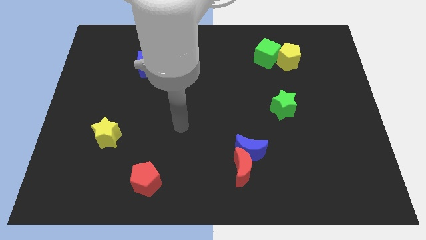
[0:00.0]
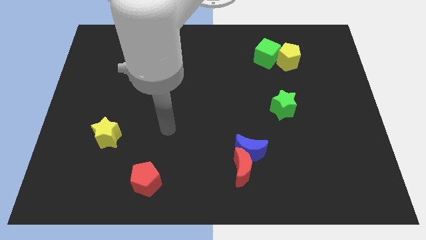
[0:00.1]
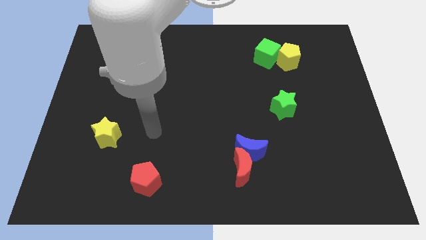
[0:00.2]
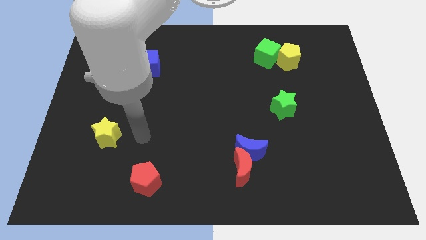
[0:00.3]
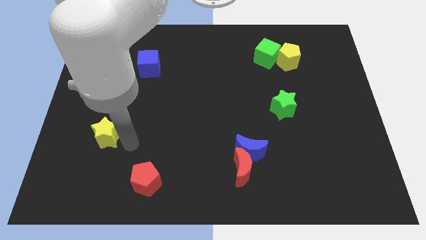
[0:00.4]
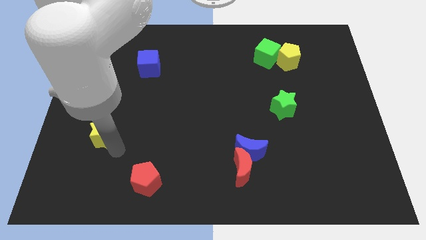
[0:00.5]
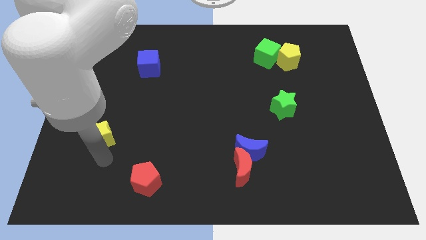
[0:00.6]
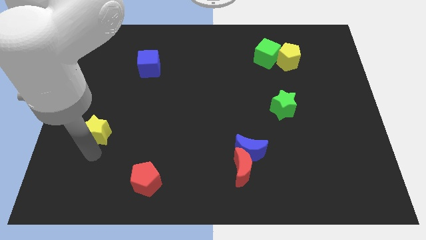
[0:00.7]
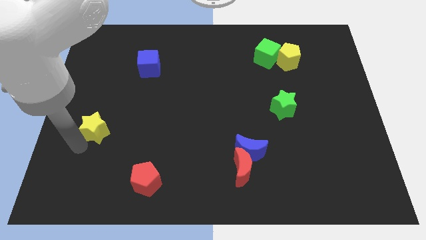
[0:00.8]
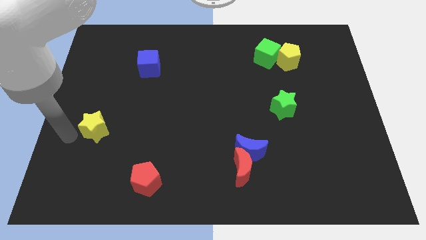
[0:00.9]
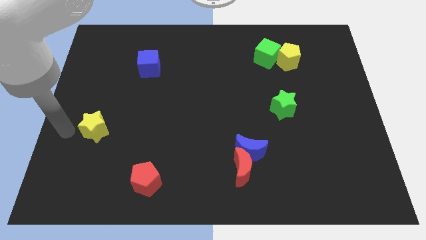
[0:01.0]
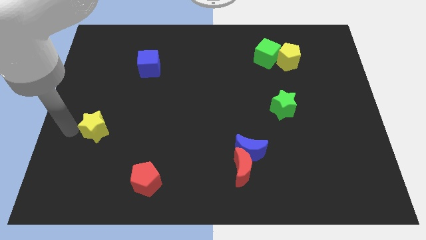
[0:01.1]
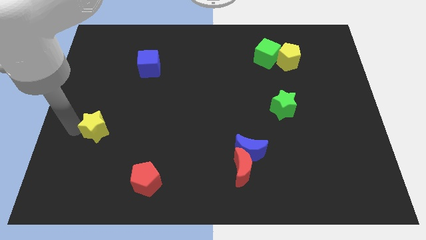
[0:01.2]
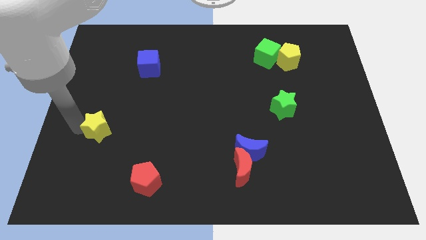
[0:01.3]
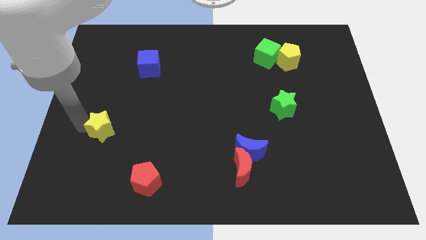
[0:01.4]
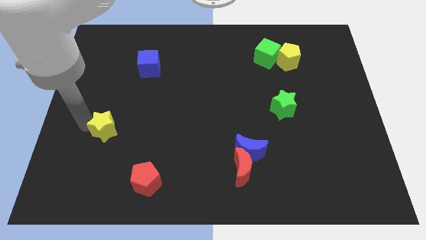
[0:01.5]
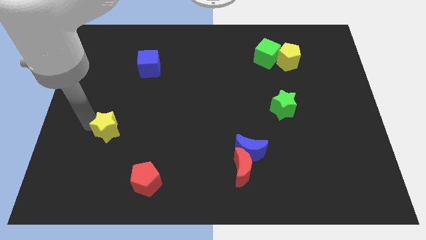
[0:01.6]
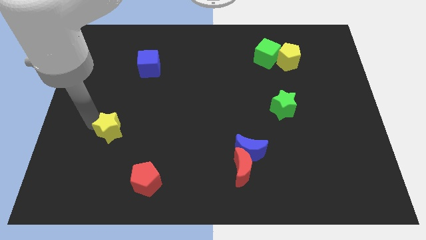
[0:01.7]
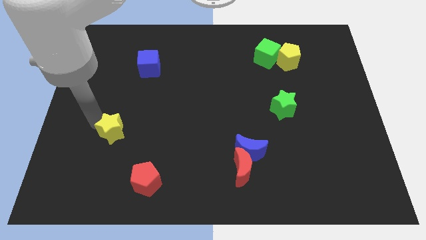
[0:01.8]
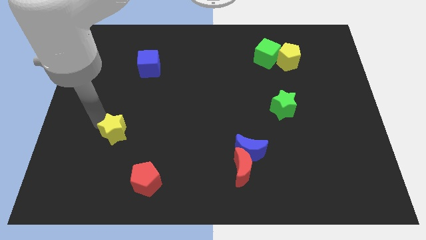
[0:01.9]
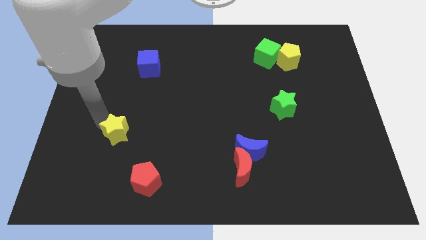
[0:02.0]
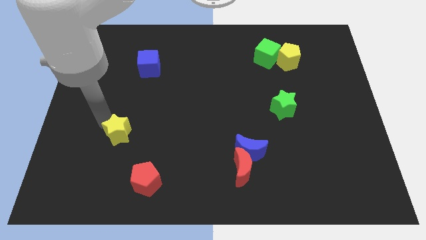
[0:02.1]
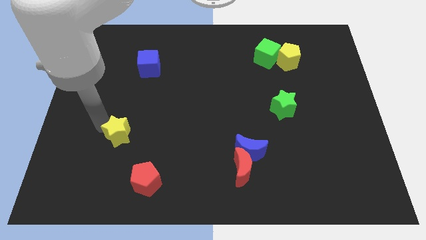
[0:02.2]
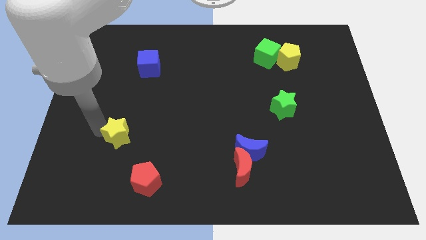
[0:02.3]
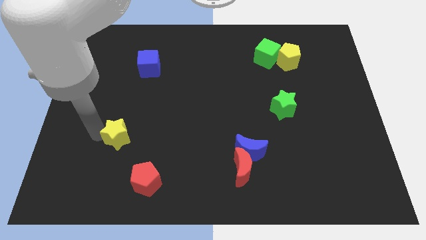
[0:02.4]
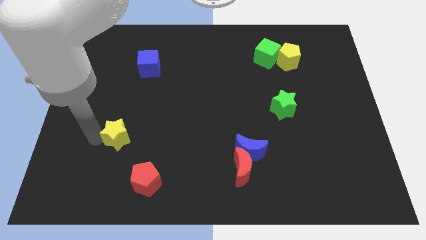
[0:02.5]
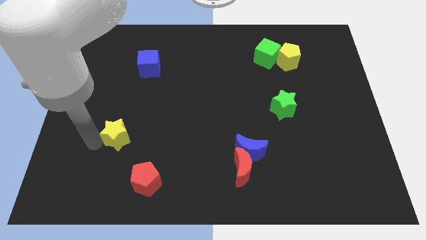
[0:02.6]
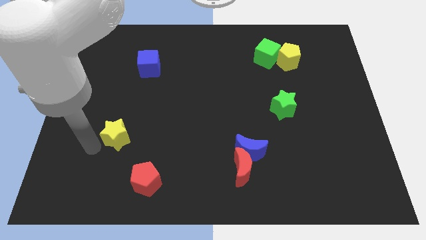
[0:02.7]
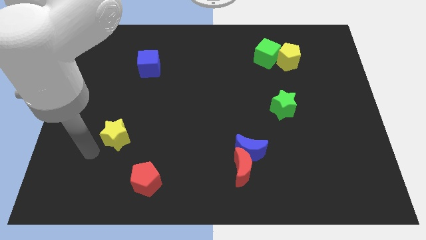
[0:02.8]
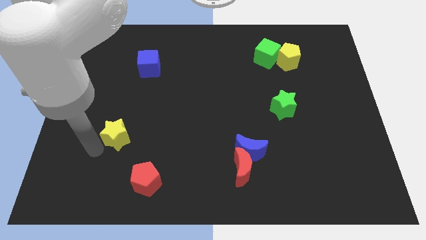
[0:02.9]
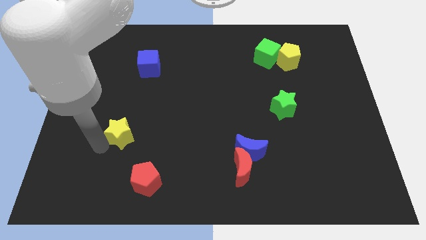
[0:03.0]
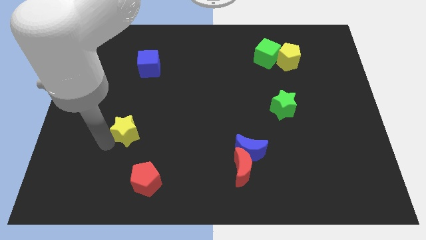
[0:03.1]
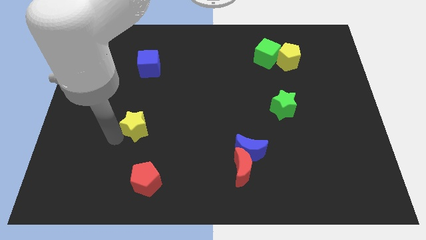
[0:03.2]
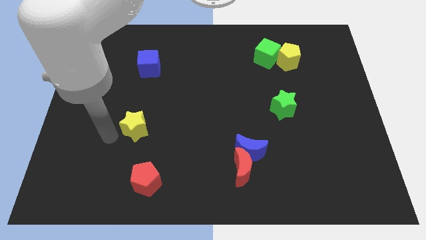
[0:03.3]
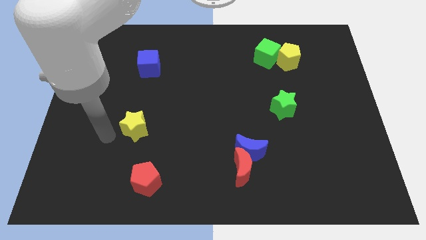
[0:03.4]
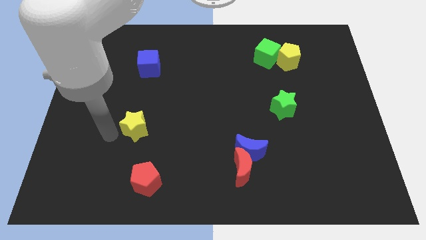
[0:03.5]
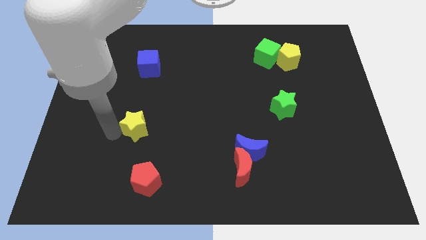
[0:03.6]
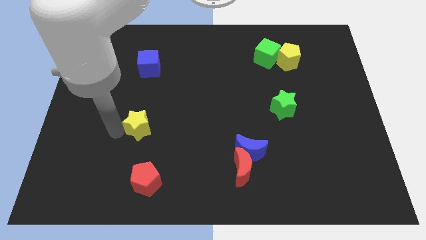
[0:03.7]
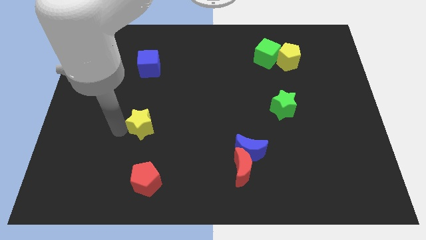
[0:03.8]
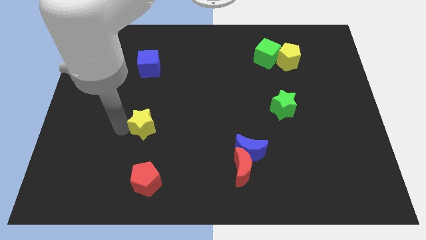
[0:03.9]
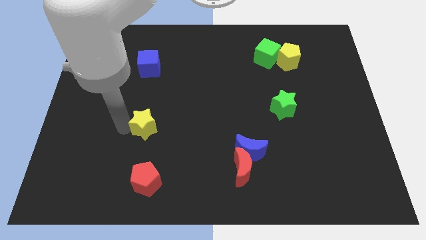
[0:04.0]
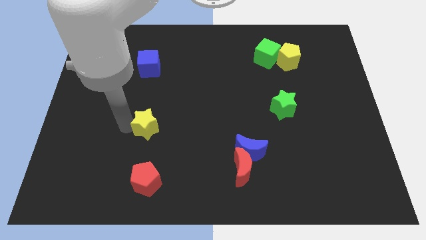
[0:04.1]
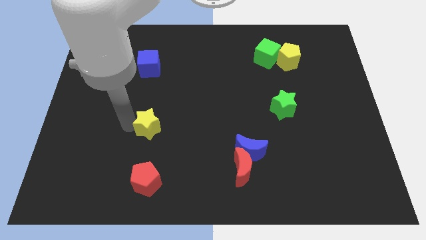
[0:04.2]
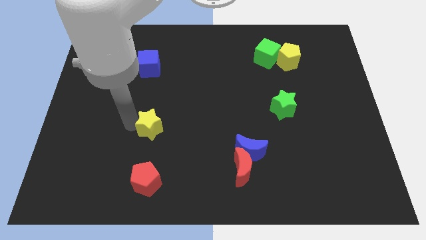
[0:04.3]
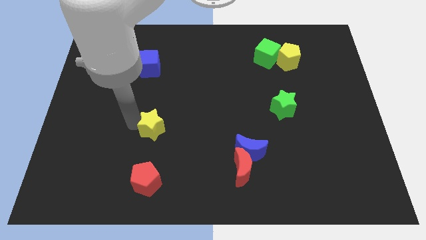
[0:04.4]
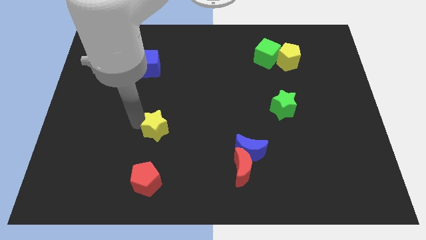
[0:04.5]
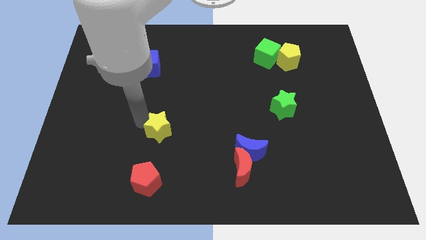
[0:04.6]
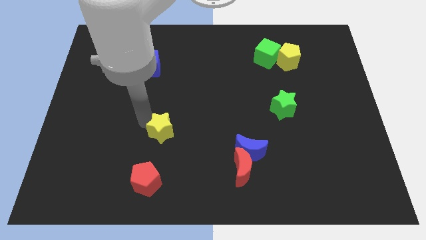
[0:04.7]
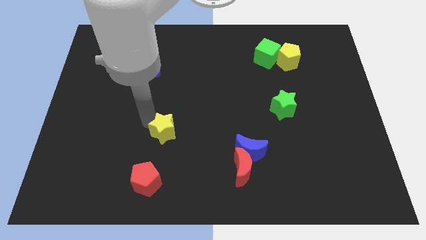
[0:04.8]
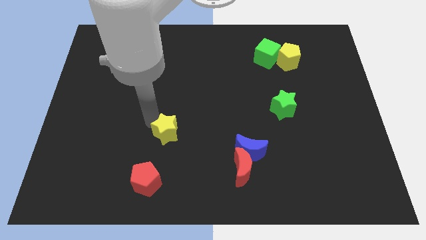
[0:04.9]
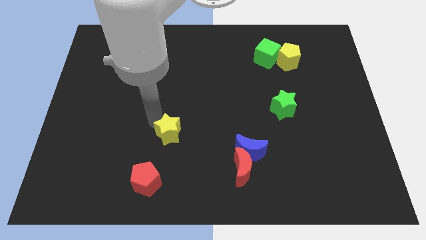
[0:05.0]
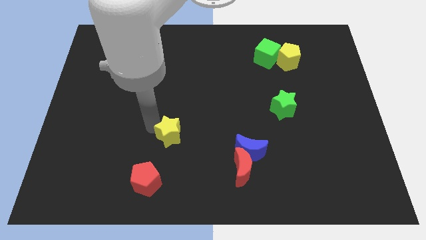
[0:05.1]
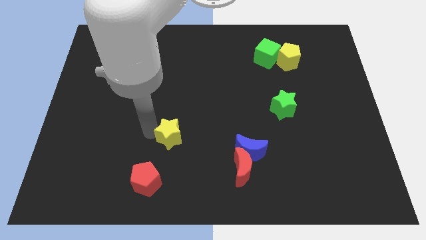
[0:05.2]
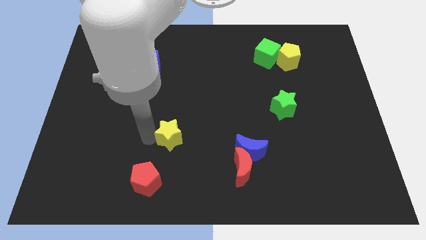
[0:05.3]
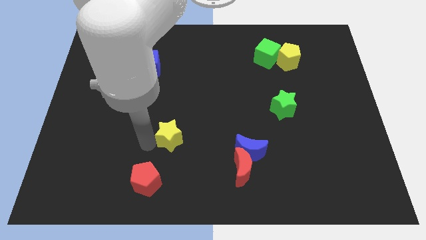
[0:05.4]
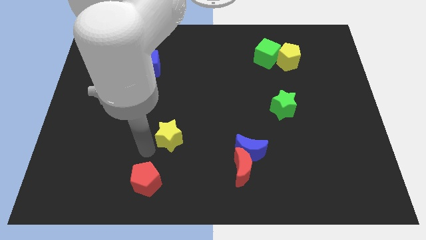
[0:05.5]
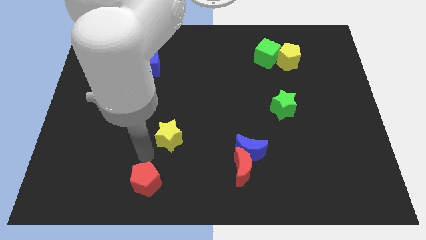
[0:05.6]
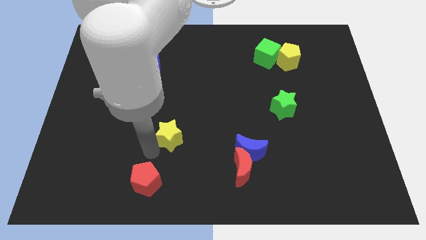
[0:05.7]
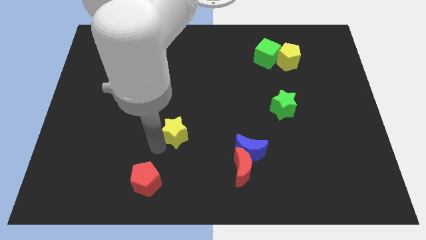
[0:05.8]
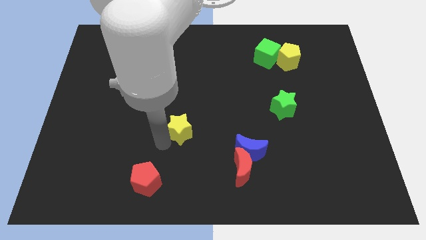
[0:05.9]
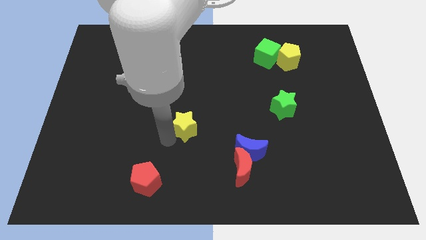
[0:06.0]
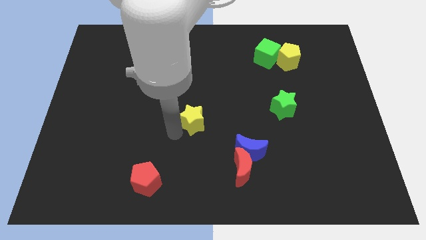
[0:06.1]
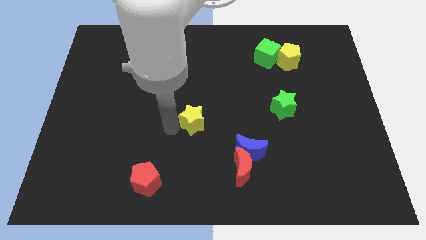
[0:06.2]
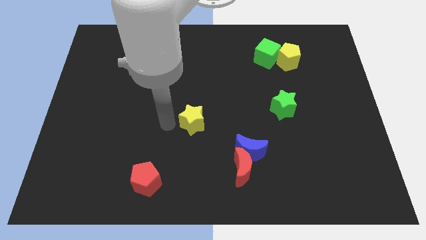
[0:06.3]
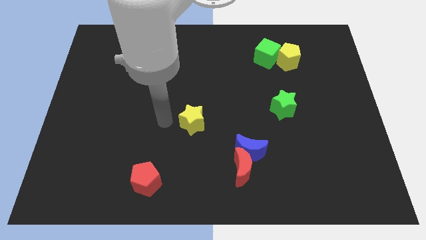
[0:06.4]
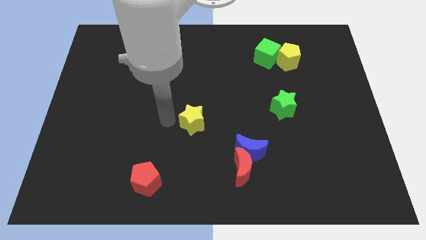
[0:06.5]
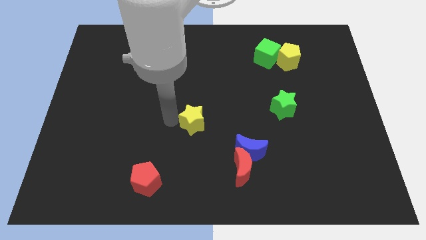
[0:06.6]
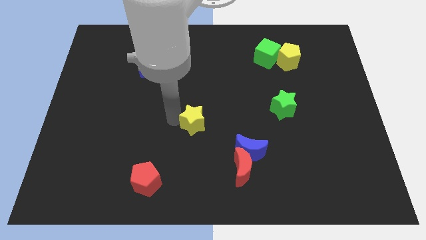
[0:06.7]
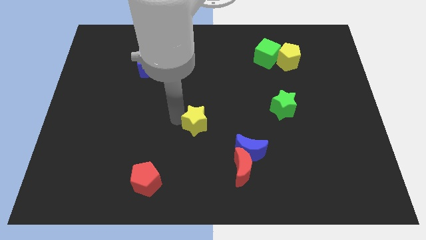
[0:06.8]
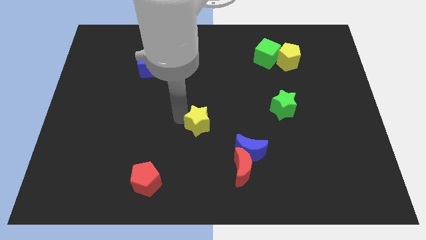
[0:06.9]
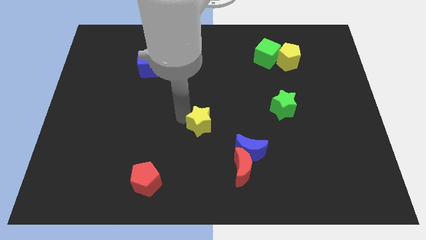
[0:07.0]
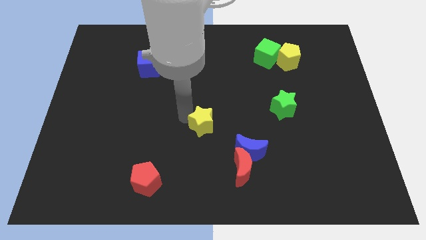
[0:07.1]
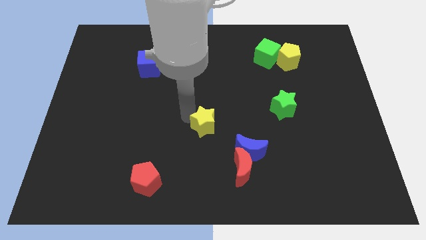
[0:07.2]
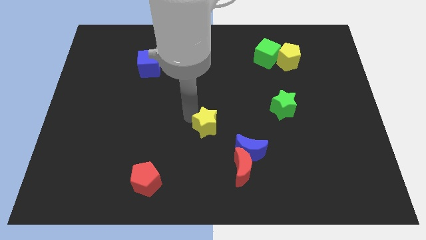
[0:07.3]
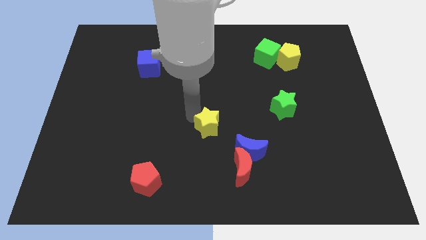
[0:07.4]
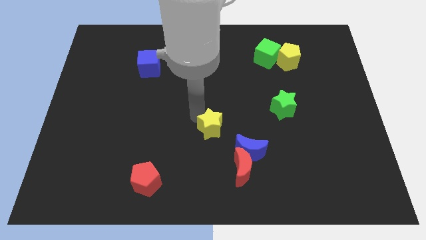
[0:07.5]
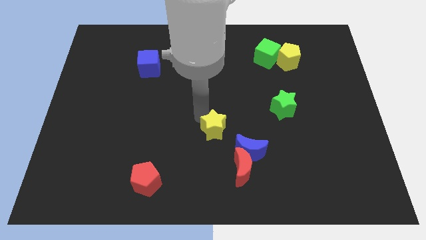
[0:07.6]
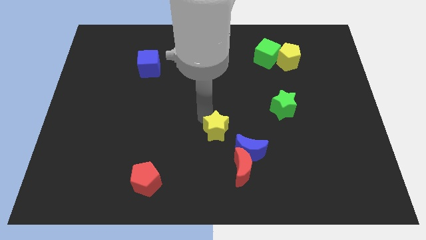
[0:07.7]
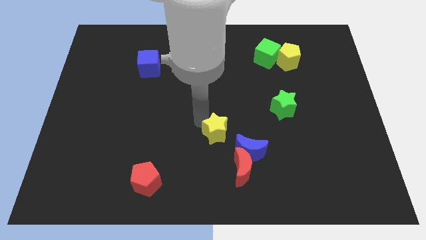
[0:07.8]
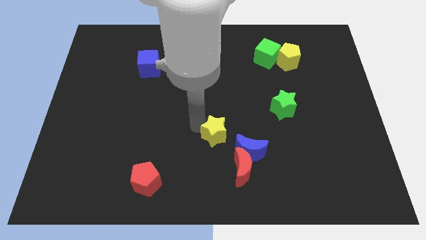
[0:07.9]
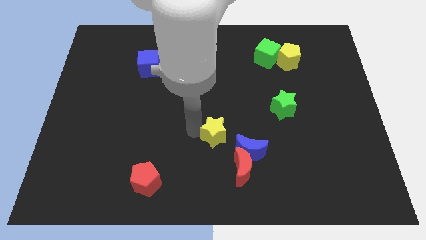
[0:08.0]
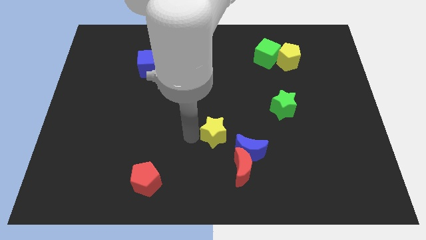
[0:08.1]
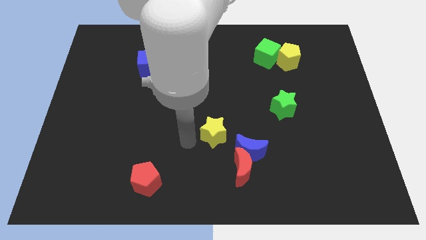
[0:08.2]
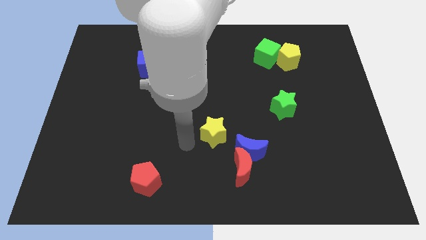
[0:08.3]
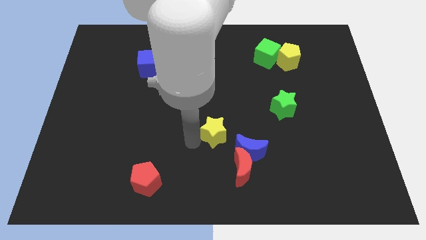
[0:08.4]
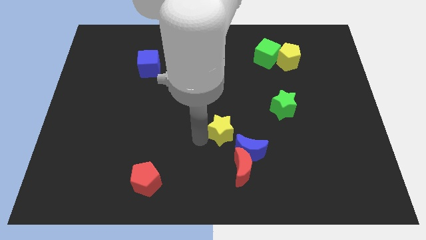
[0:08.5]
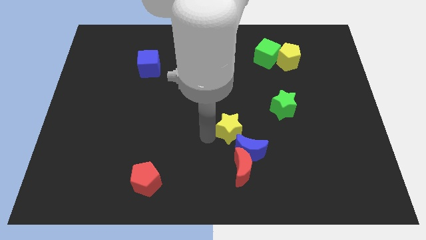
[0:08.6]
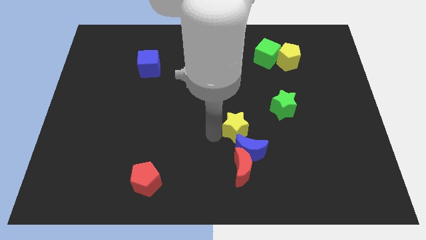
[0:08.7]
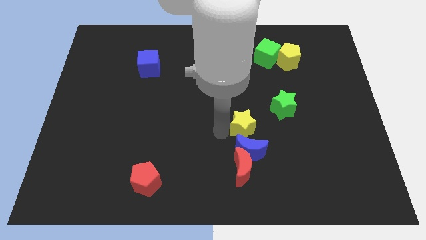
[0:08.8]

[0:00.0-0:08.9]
push the yellow star to the bottom left side of the green star
